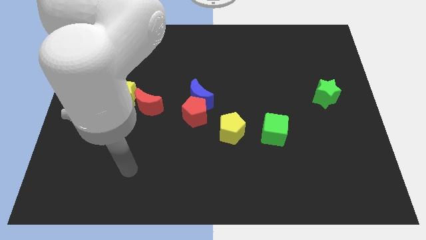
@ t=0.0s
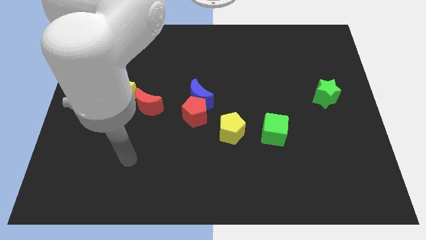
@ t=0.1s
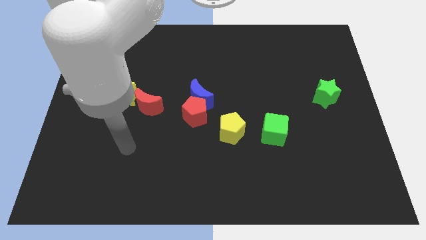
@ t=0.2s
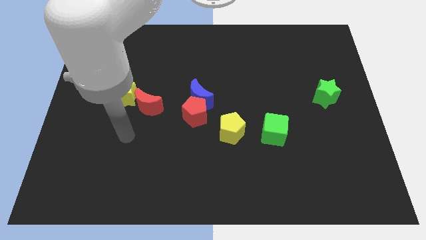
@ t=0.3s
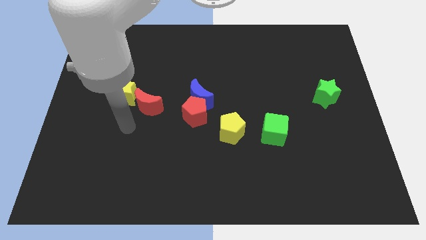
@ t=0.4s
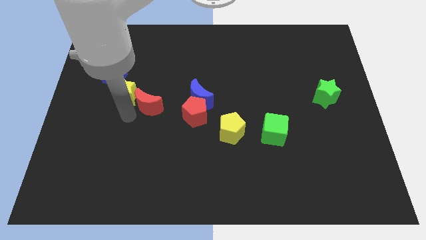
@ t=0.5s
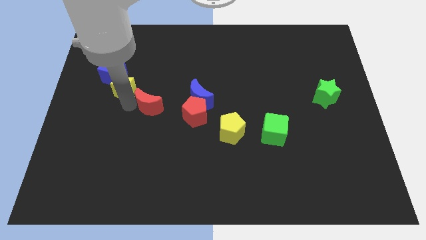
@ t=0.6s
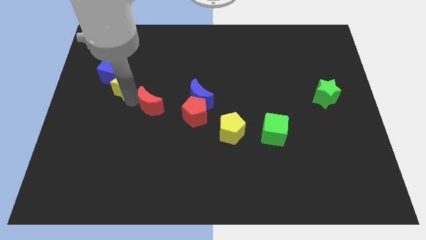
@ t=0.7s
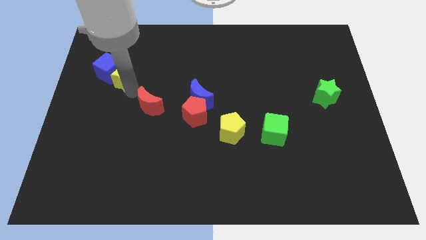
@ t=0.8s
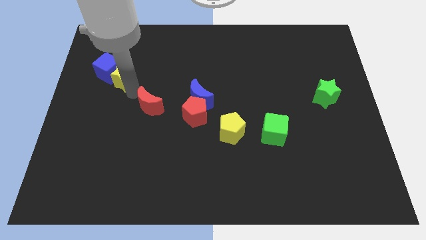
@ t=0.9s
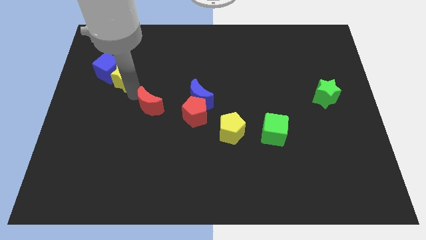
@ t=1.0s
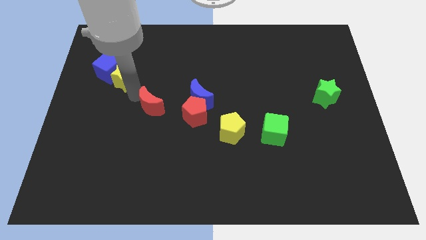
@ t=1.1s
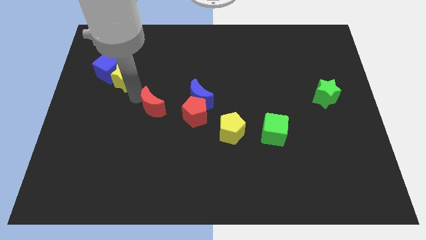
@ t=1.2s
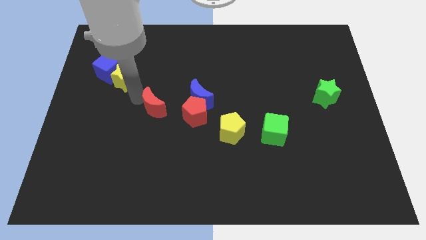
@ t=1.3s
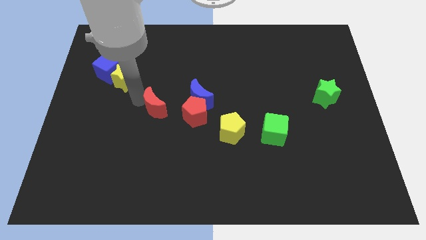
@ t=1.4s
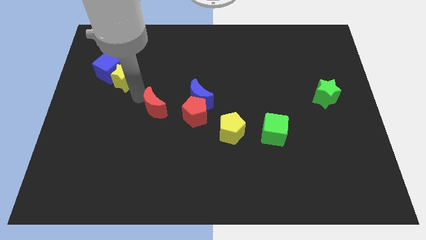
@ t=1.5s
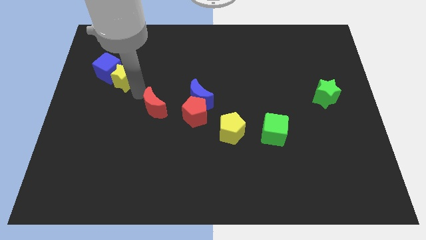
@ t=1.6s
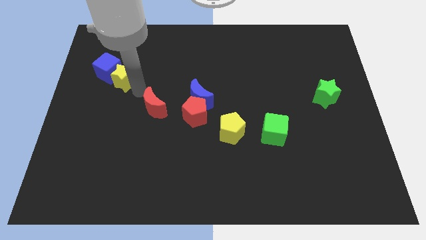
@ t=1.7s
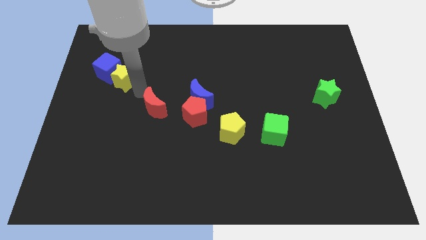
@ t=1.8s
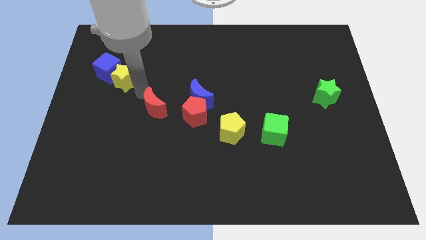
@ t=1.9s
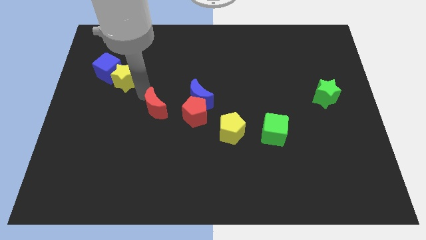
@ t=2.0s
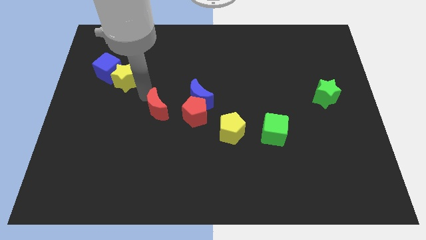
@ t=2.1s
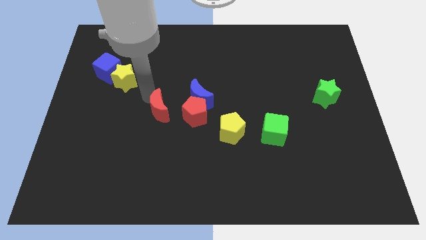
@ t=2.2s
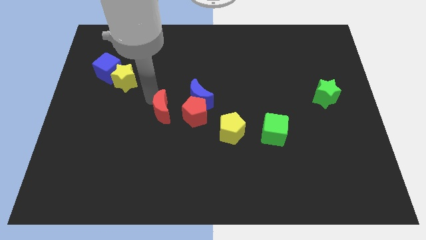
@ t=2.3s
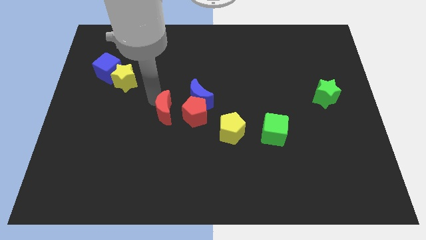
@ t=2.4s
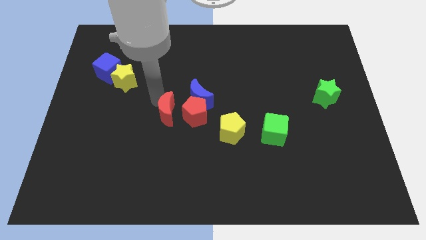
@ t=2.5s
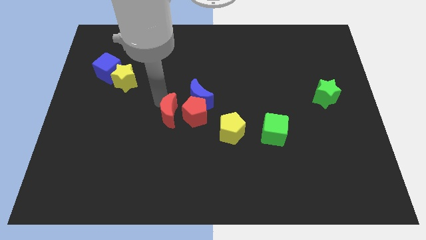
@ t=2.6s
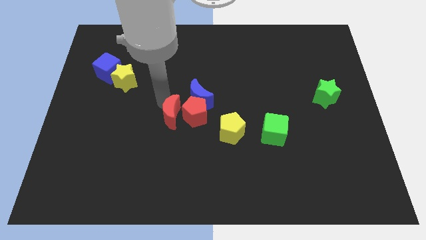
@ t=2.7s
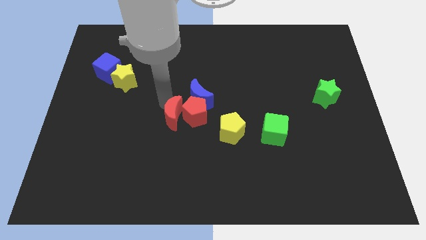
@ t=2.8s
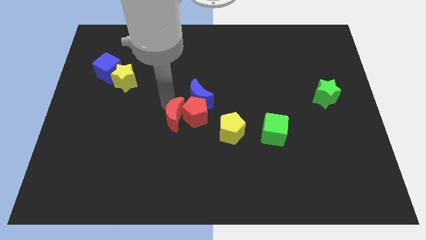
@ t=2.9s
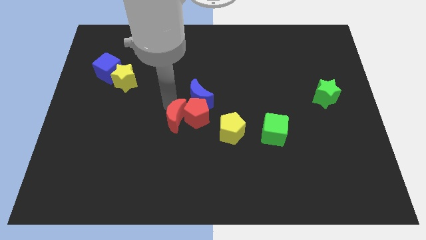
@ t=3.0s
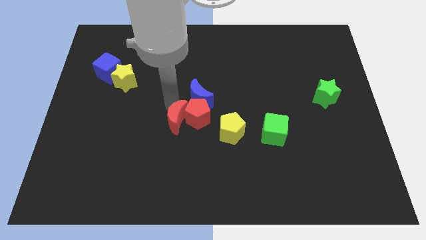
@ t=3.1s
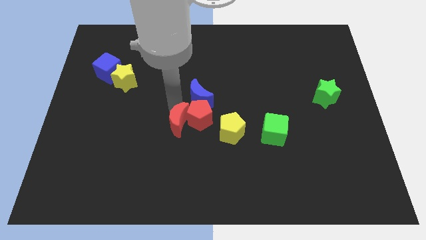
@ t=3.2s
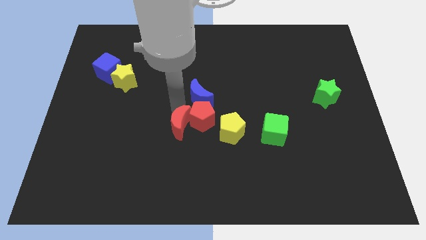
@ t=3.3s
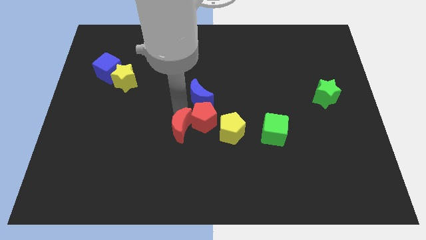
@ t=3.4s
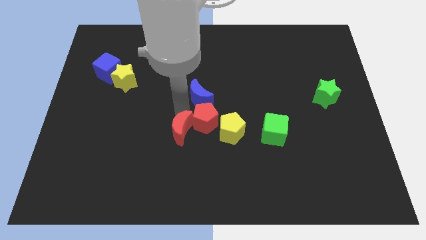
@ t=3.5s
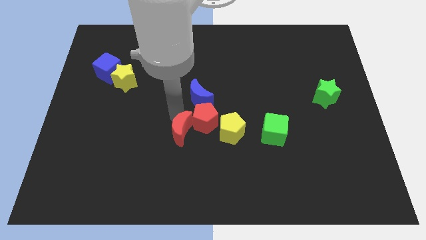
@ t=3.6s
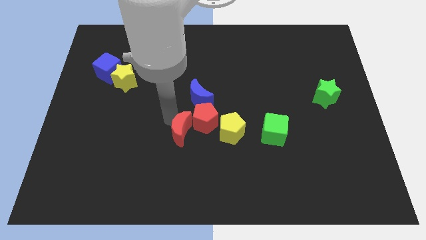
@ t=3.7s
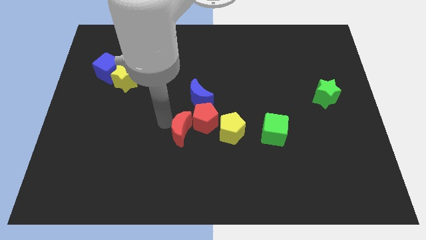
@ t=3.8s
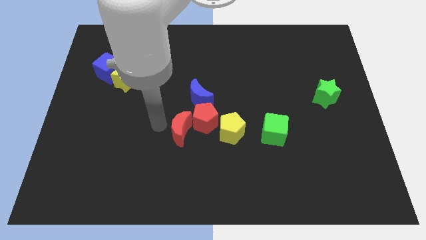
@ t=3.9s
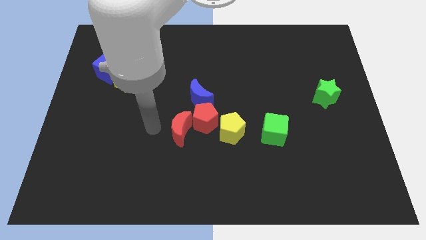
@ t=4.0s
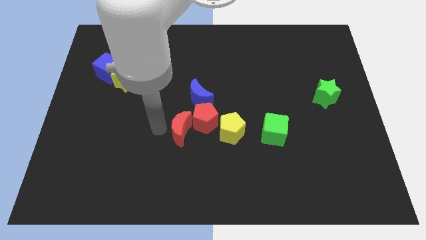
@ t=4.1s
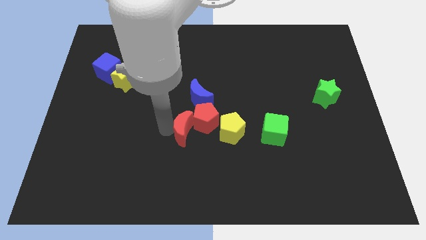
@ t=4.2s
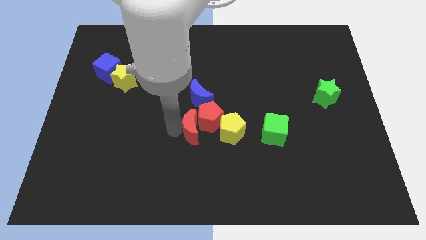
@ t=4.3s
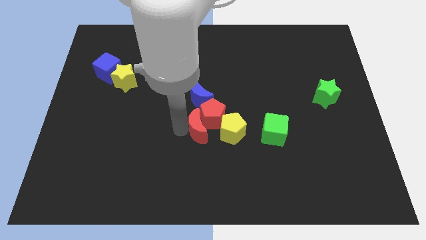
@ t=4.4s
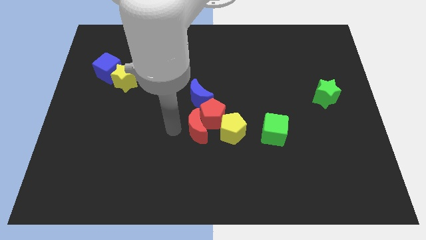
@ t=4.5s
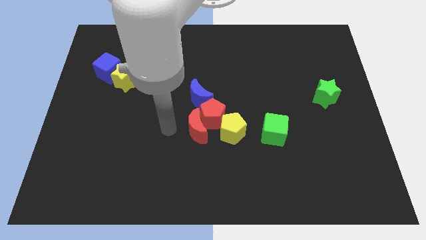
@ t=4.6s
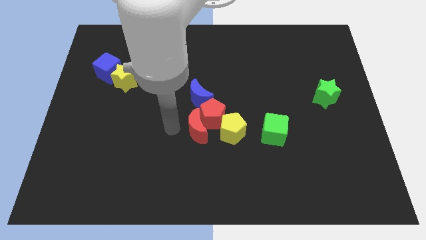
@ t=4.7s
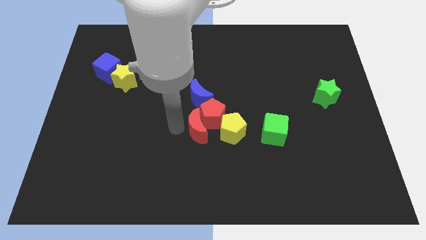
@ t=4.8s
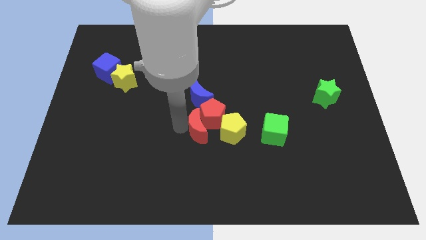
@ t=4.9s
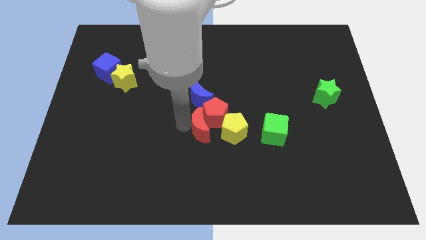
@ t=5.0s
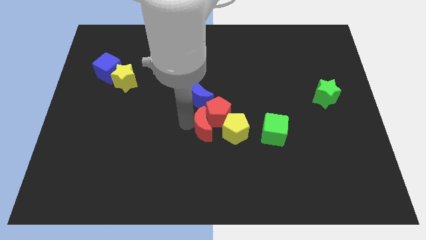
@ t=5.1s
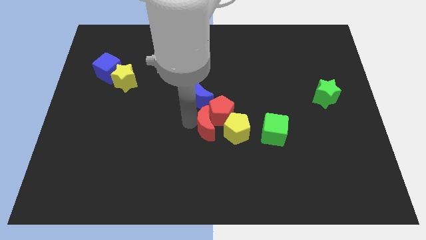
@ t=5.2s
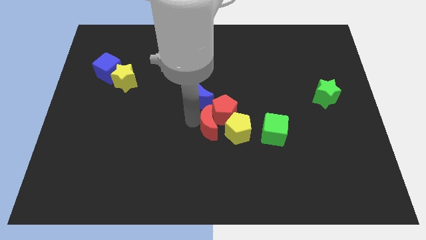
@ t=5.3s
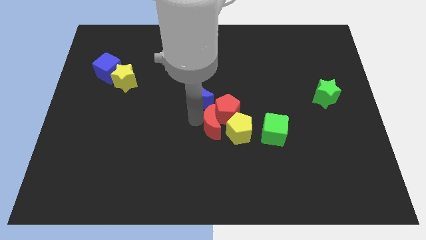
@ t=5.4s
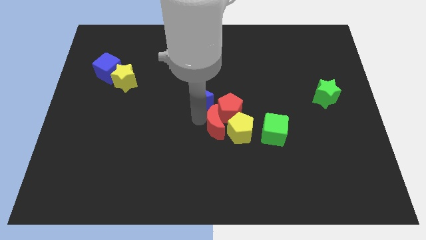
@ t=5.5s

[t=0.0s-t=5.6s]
slide the red moon towards the yellow pentagon

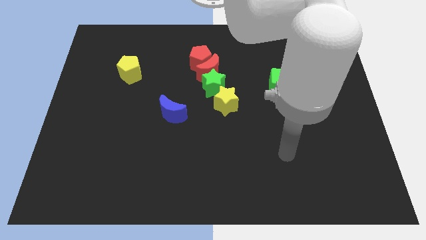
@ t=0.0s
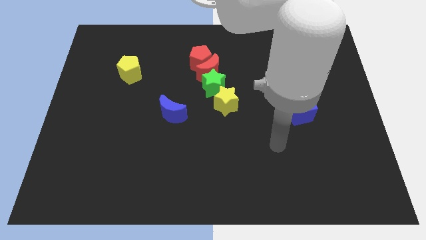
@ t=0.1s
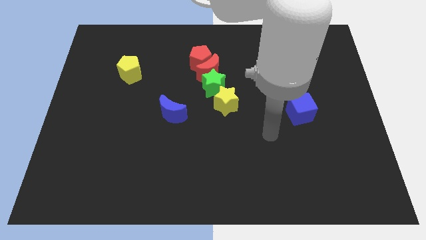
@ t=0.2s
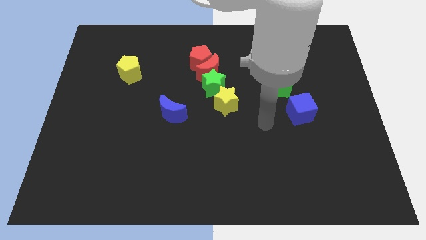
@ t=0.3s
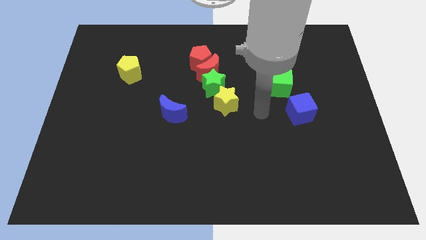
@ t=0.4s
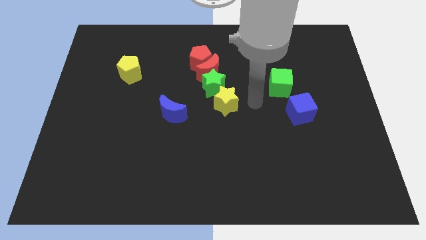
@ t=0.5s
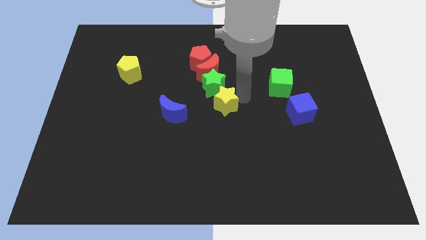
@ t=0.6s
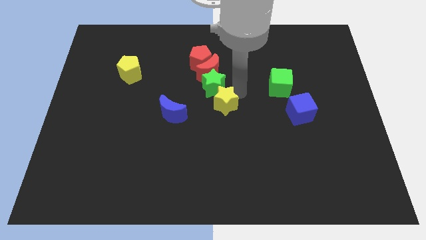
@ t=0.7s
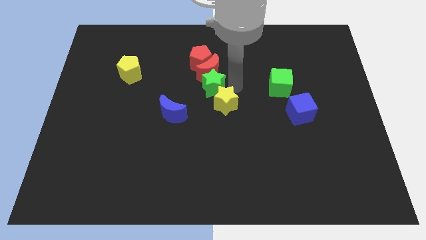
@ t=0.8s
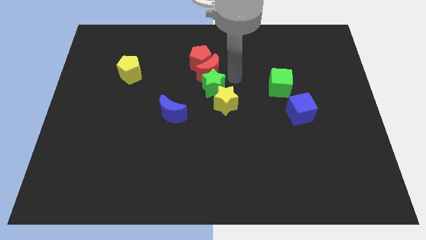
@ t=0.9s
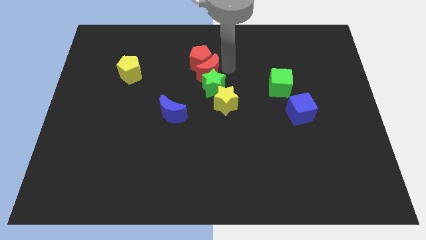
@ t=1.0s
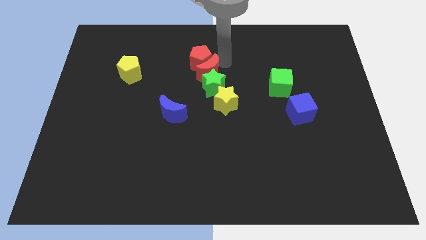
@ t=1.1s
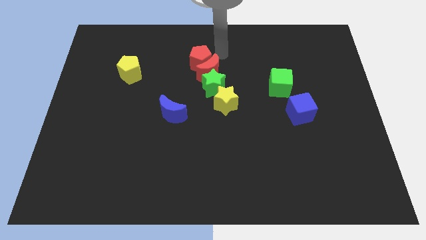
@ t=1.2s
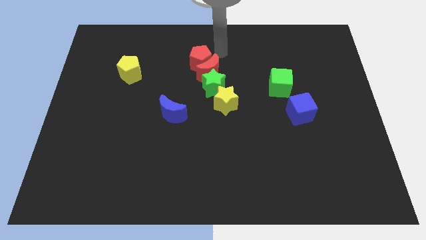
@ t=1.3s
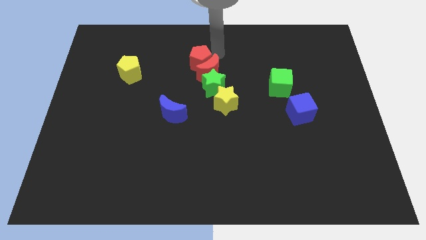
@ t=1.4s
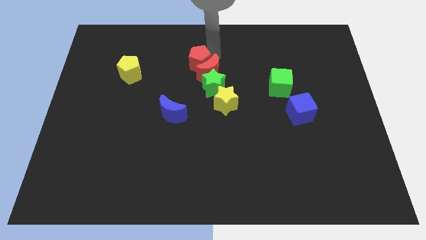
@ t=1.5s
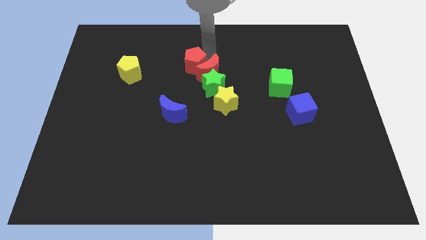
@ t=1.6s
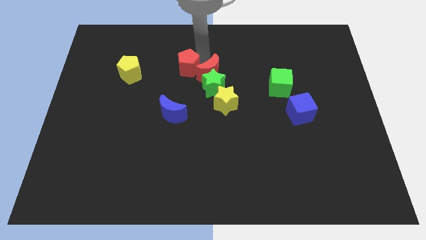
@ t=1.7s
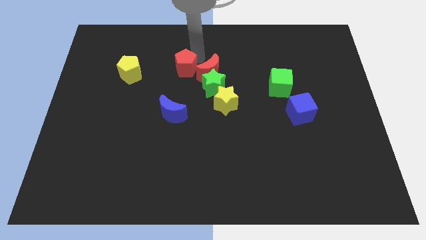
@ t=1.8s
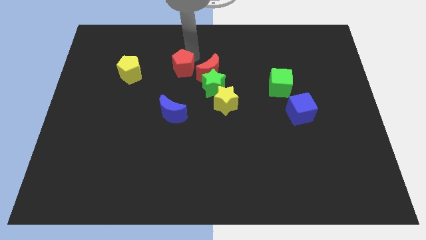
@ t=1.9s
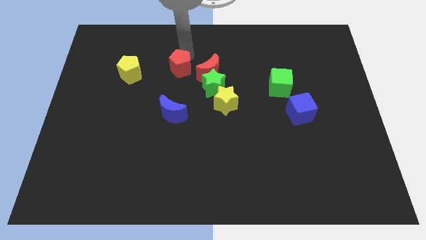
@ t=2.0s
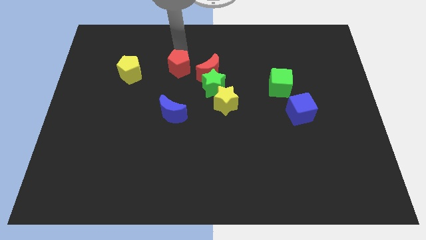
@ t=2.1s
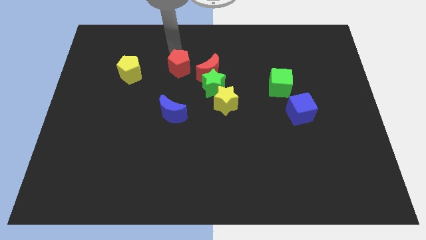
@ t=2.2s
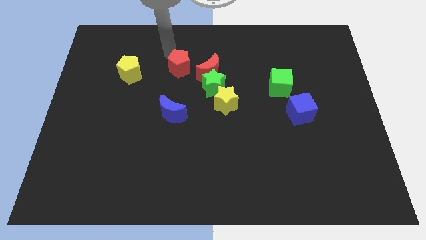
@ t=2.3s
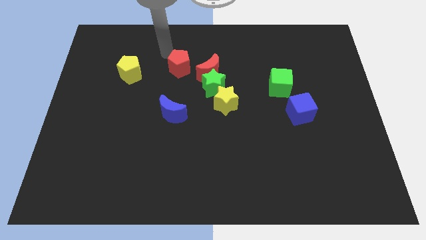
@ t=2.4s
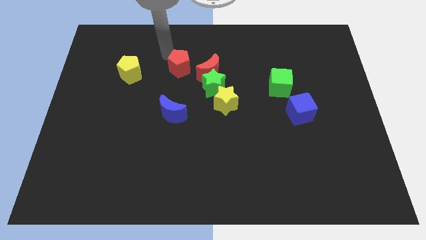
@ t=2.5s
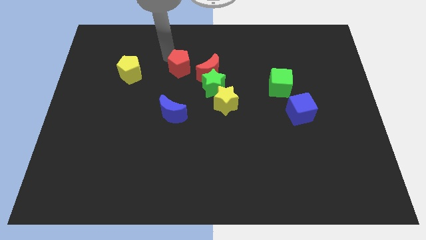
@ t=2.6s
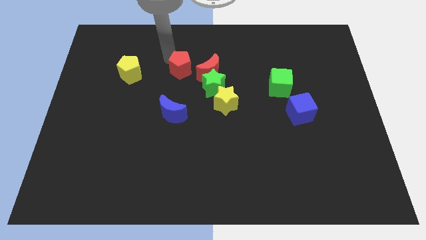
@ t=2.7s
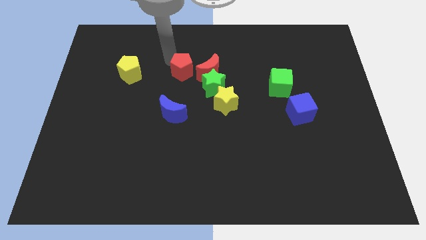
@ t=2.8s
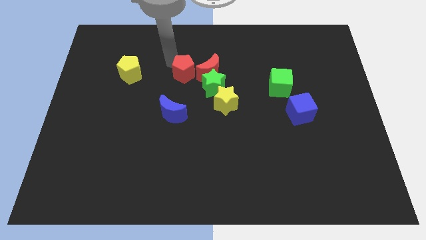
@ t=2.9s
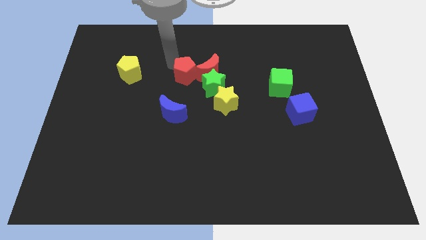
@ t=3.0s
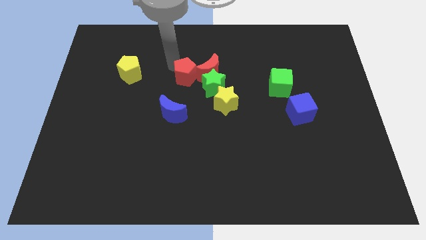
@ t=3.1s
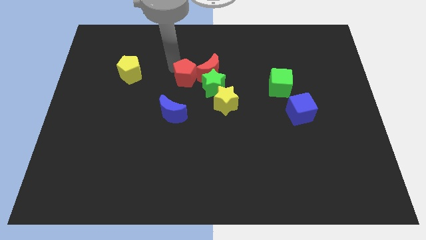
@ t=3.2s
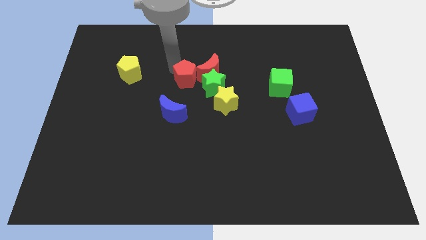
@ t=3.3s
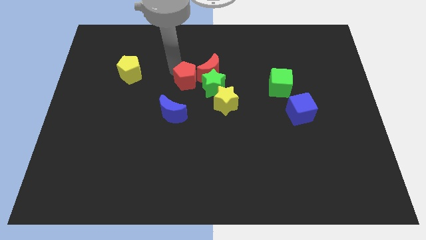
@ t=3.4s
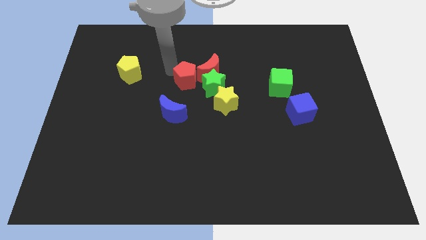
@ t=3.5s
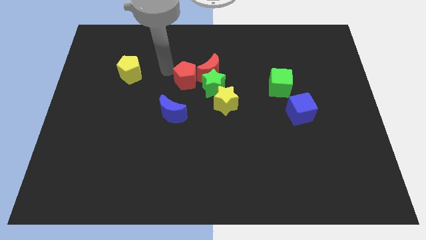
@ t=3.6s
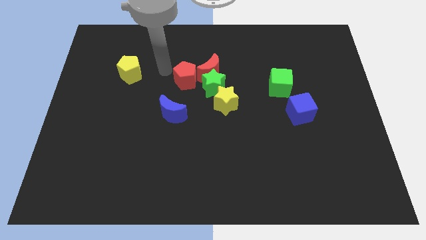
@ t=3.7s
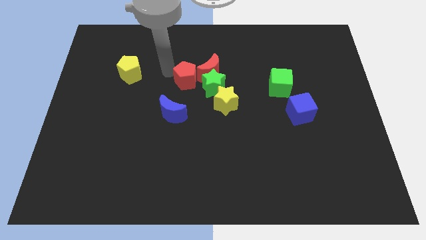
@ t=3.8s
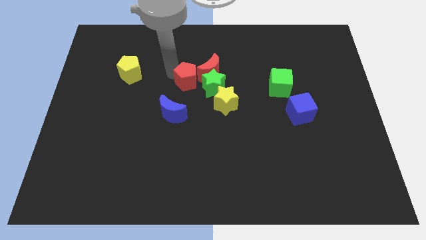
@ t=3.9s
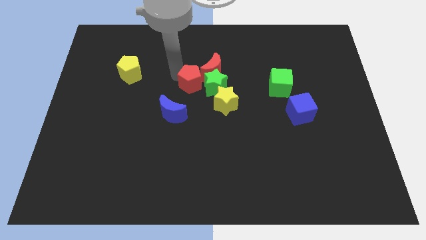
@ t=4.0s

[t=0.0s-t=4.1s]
slide the red pentagon to the green star
